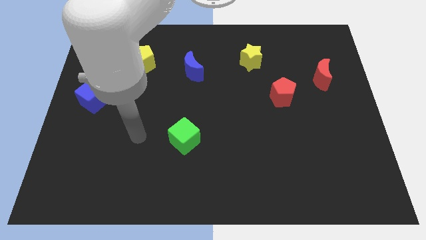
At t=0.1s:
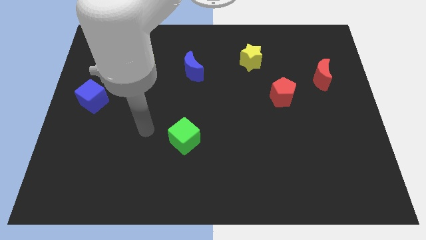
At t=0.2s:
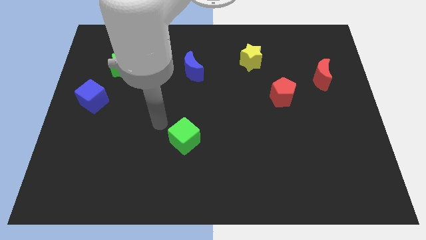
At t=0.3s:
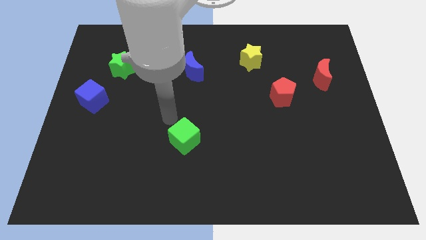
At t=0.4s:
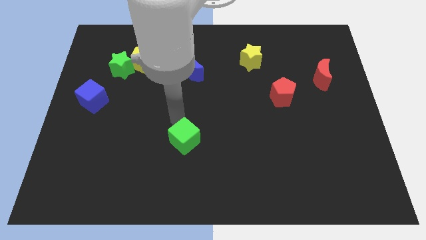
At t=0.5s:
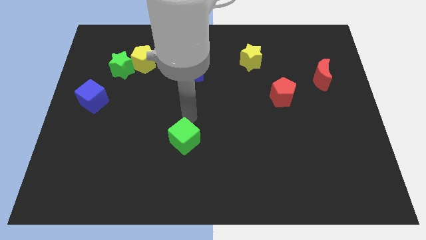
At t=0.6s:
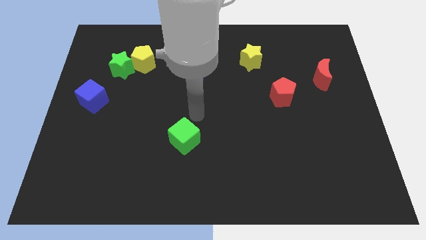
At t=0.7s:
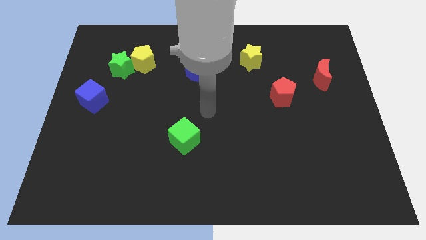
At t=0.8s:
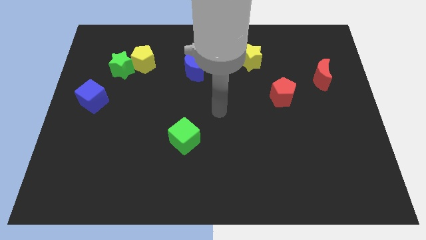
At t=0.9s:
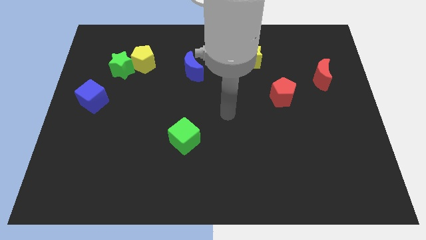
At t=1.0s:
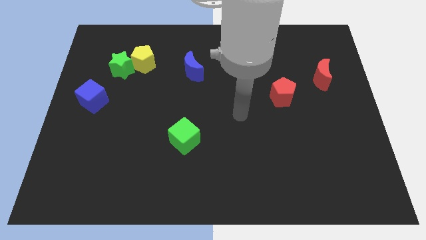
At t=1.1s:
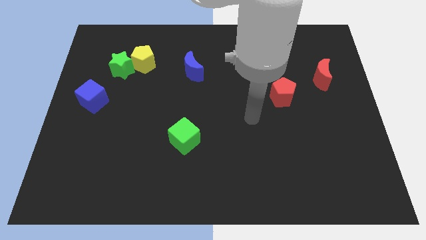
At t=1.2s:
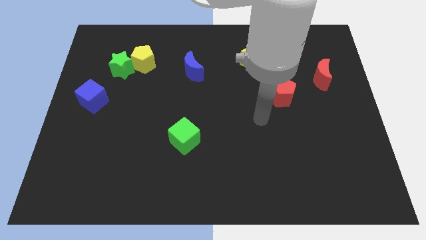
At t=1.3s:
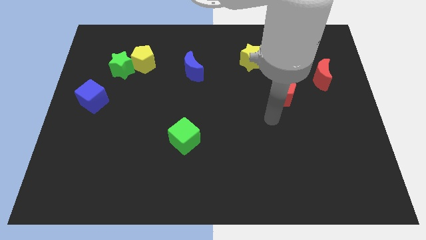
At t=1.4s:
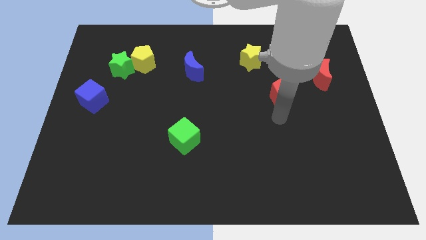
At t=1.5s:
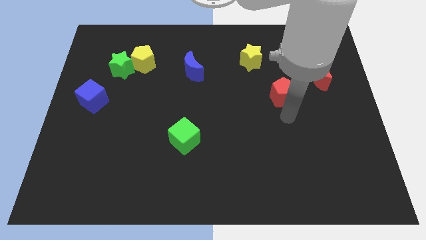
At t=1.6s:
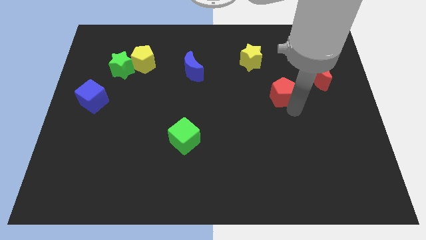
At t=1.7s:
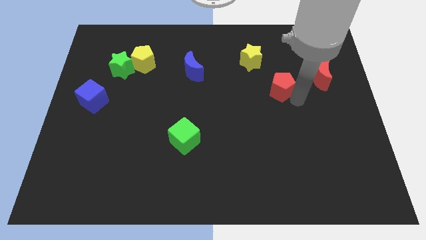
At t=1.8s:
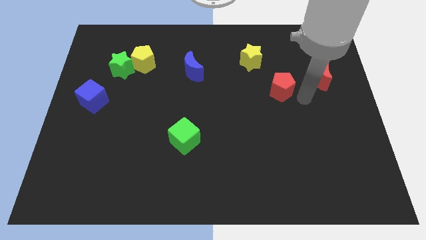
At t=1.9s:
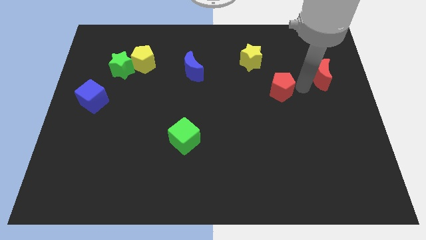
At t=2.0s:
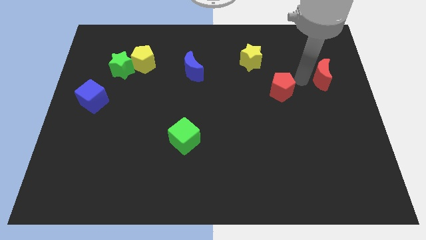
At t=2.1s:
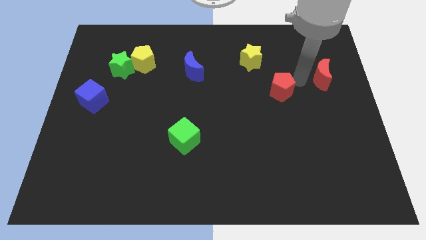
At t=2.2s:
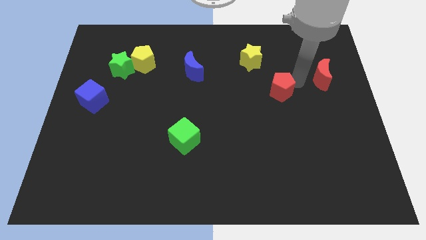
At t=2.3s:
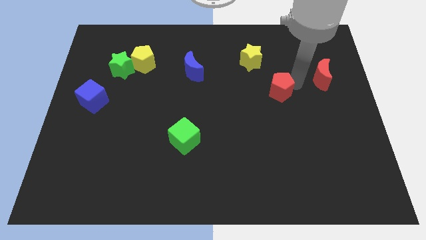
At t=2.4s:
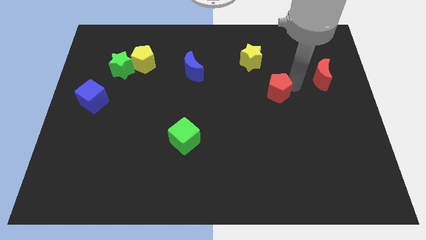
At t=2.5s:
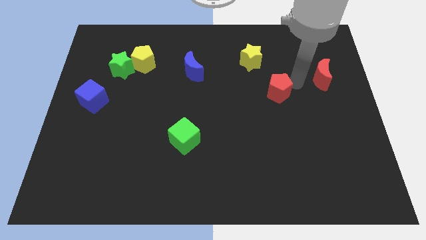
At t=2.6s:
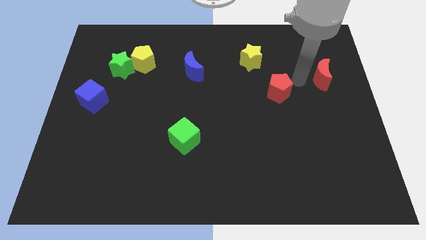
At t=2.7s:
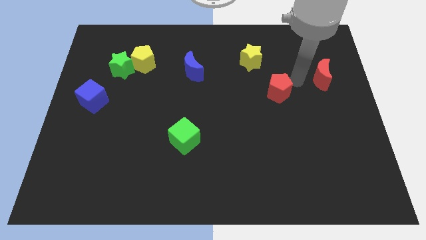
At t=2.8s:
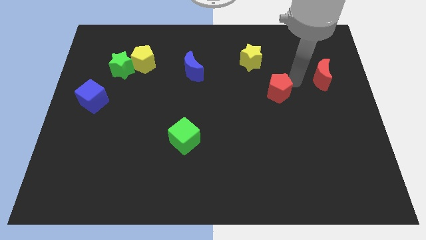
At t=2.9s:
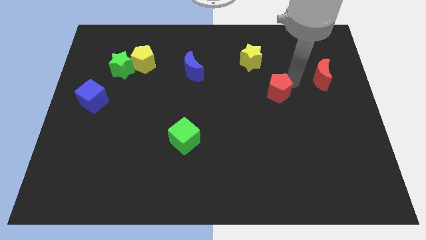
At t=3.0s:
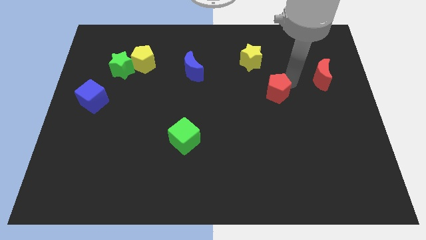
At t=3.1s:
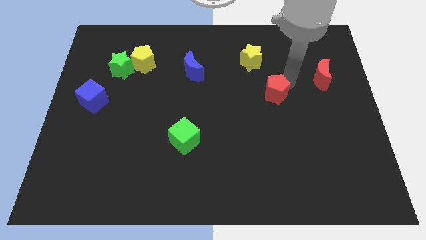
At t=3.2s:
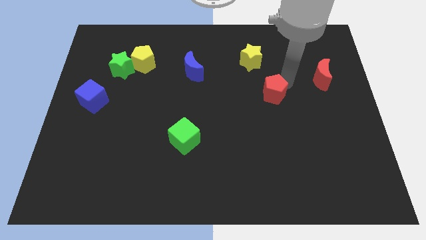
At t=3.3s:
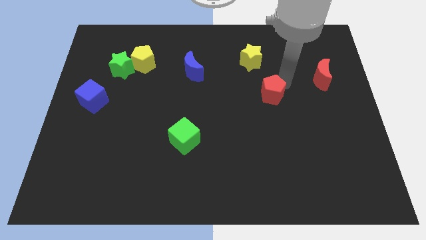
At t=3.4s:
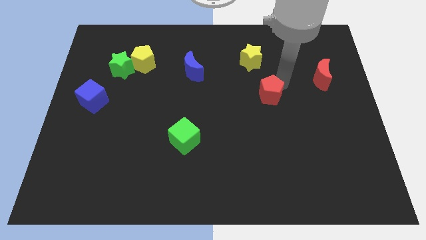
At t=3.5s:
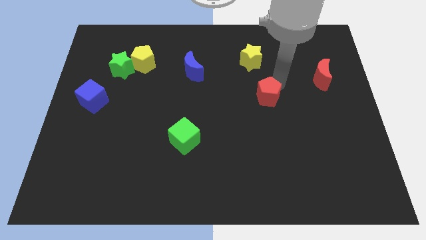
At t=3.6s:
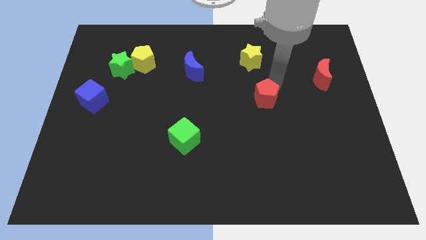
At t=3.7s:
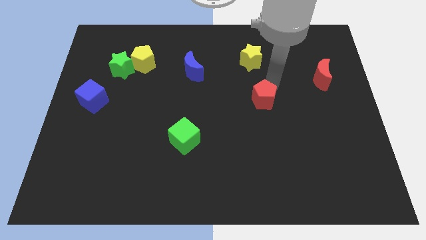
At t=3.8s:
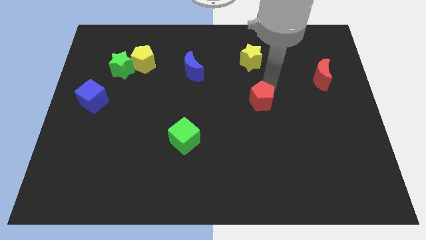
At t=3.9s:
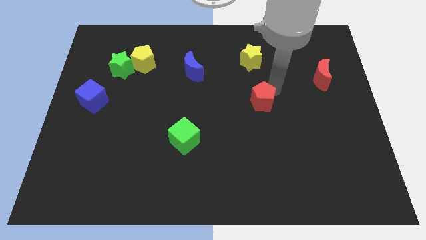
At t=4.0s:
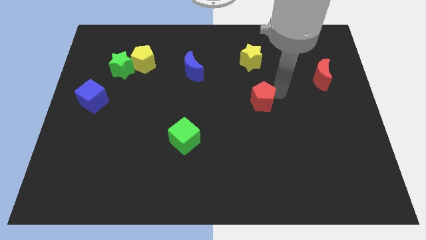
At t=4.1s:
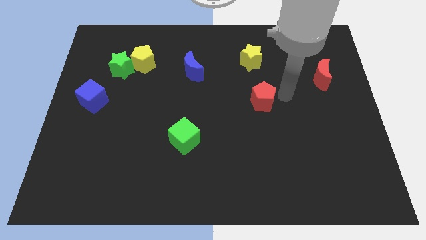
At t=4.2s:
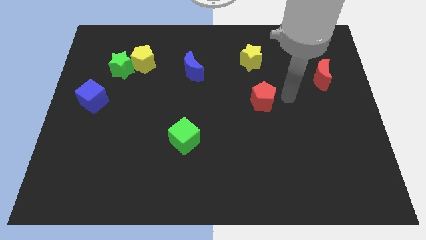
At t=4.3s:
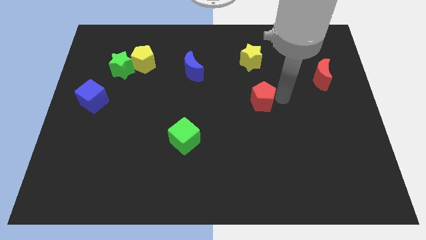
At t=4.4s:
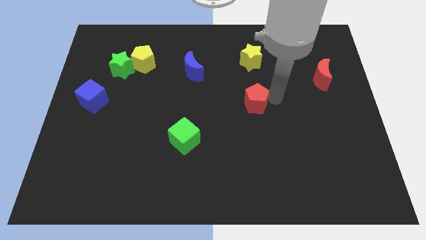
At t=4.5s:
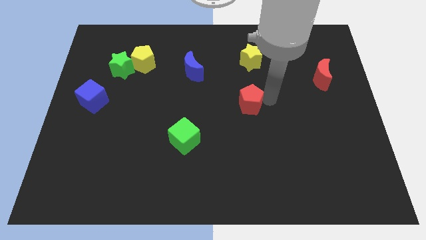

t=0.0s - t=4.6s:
move the red pentagon to the left somewhat

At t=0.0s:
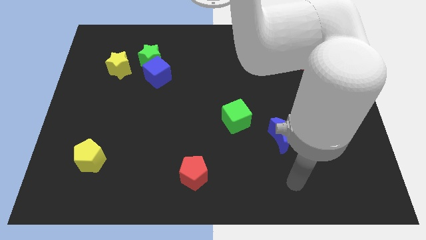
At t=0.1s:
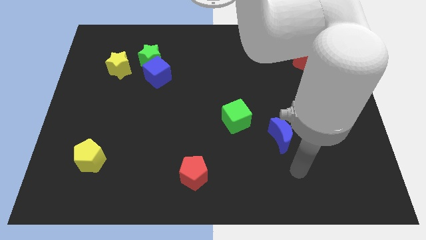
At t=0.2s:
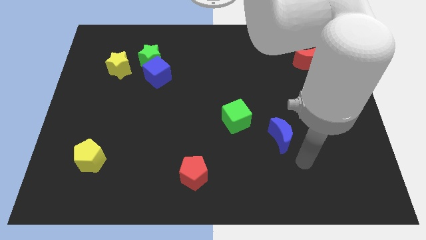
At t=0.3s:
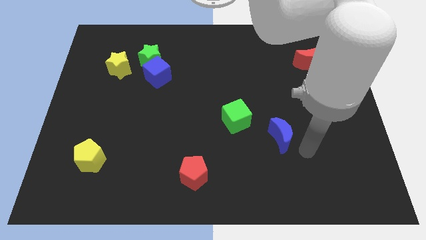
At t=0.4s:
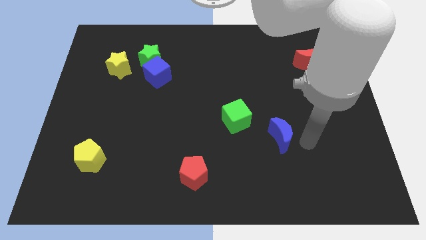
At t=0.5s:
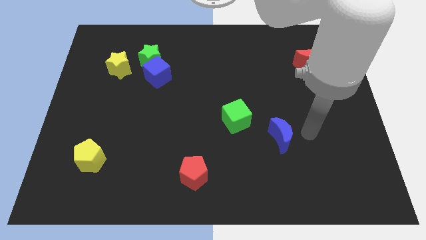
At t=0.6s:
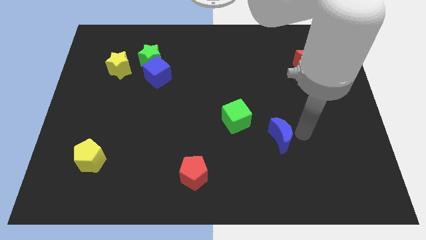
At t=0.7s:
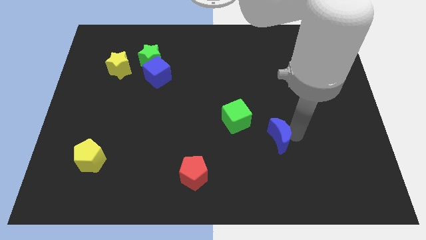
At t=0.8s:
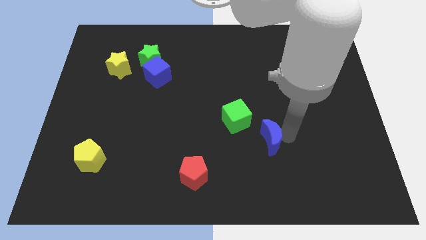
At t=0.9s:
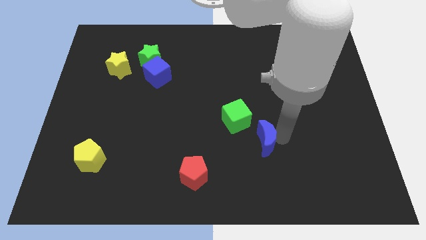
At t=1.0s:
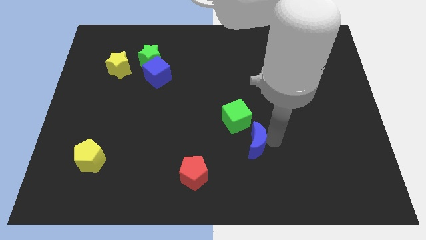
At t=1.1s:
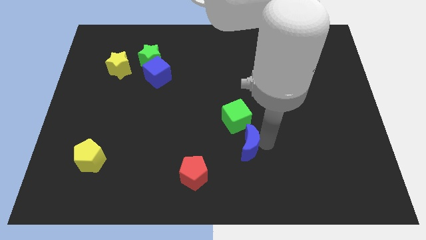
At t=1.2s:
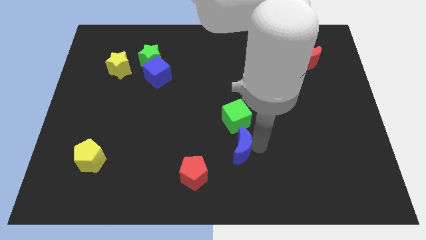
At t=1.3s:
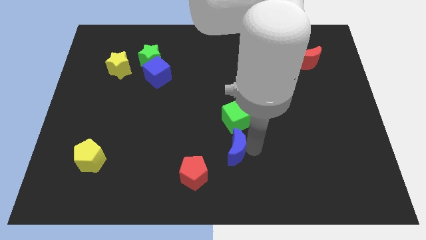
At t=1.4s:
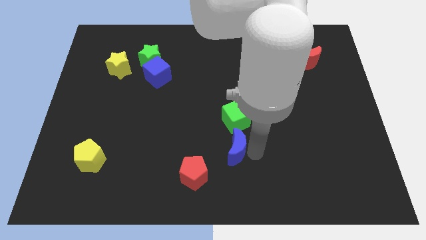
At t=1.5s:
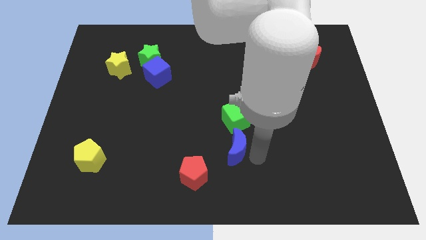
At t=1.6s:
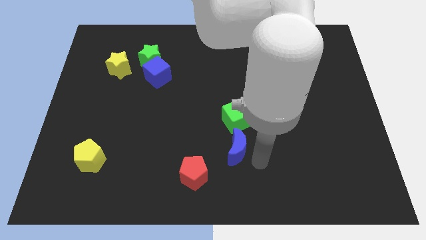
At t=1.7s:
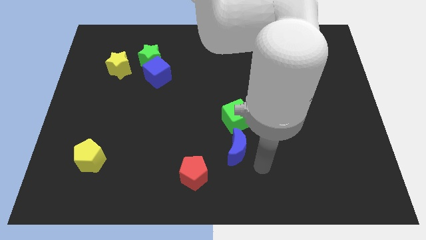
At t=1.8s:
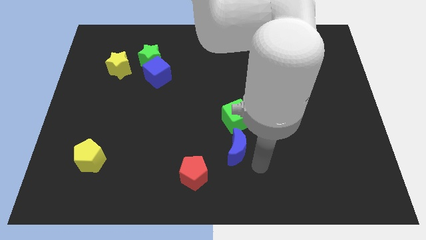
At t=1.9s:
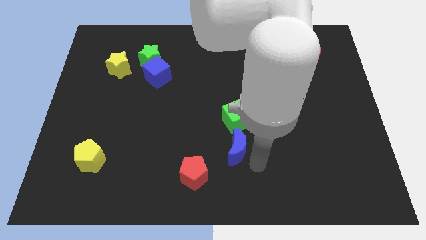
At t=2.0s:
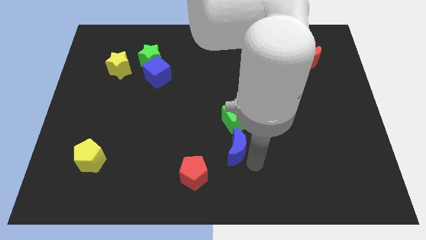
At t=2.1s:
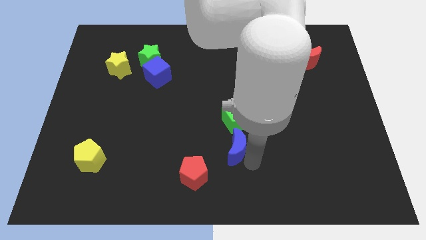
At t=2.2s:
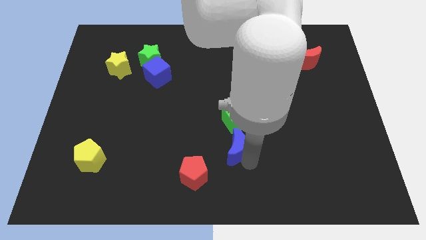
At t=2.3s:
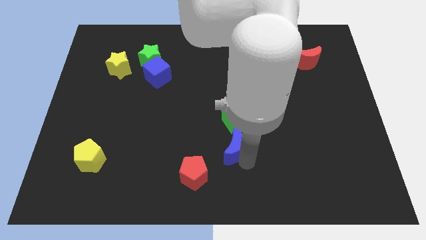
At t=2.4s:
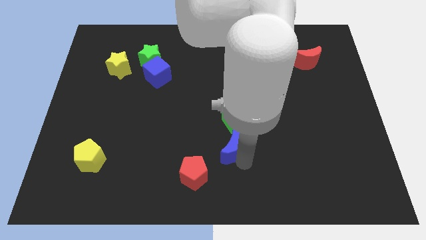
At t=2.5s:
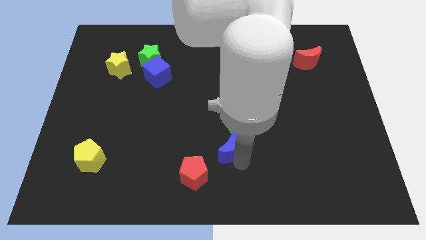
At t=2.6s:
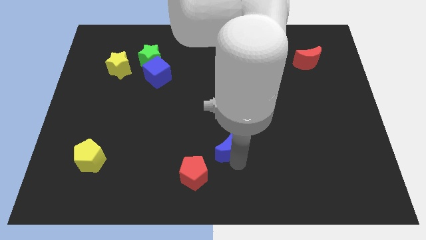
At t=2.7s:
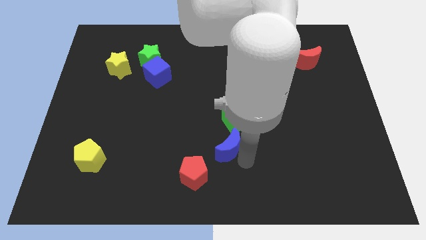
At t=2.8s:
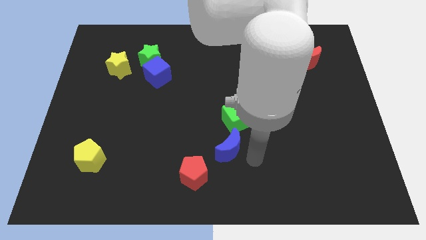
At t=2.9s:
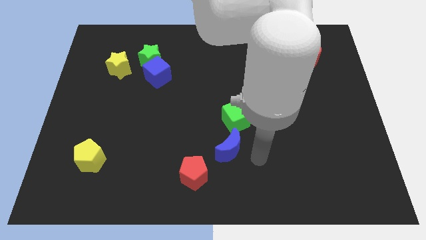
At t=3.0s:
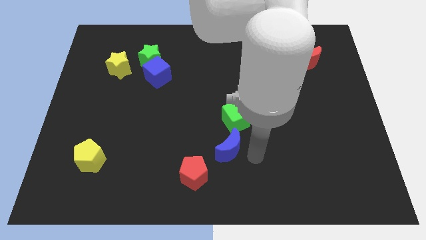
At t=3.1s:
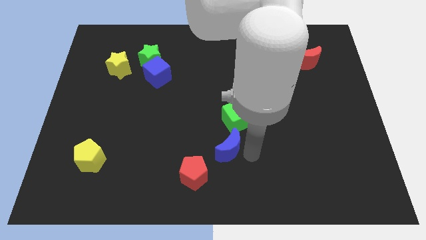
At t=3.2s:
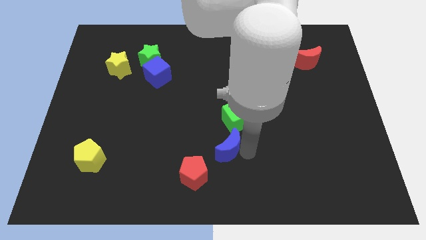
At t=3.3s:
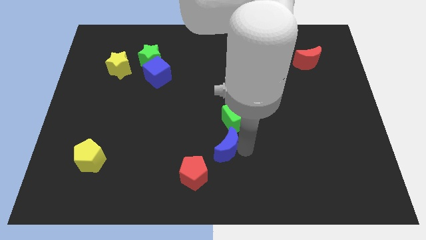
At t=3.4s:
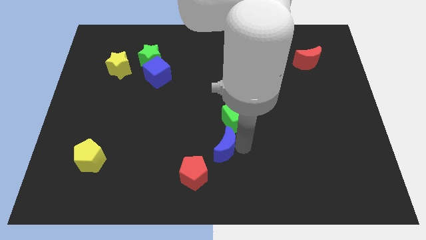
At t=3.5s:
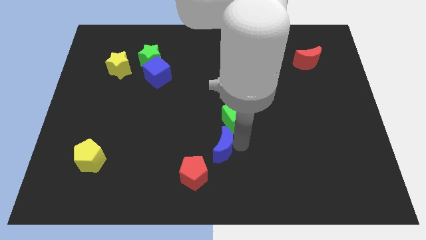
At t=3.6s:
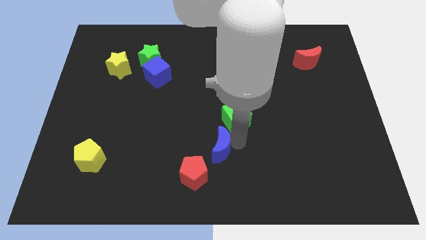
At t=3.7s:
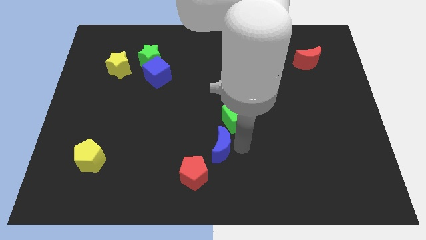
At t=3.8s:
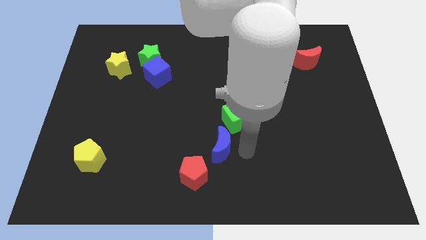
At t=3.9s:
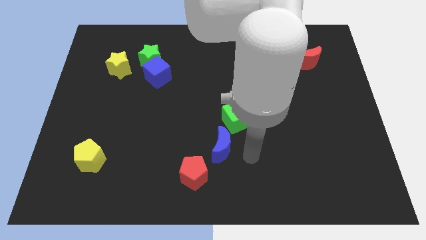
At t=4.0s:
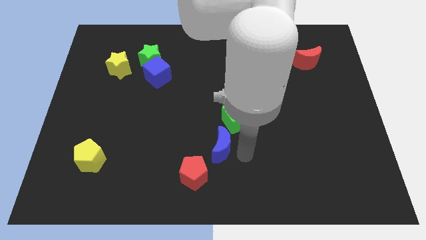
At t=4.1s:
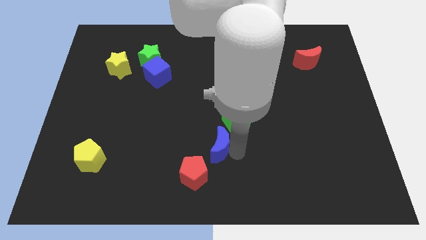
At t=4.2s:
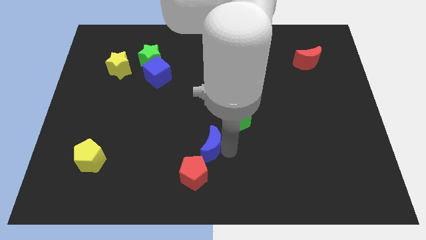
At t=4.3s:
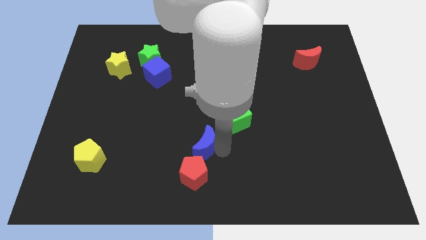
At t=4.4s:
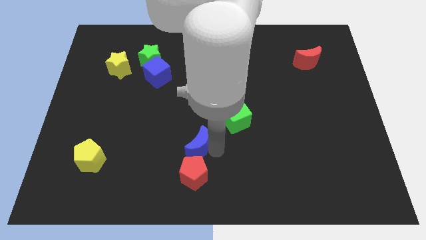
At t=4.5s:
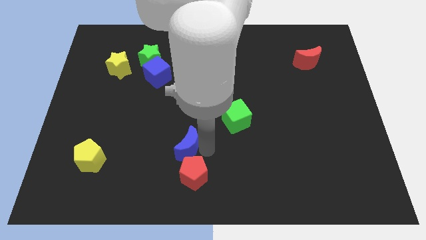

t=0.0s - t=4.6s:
move the blue moon to the left
